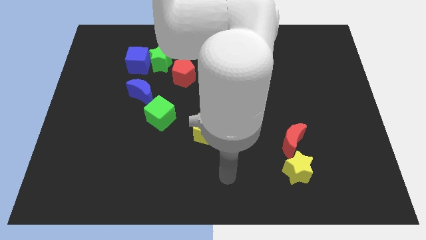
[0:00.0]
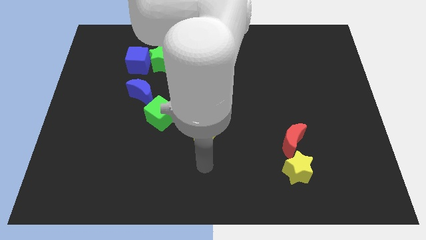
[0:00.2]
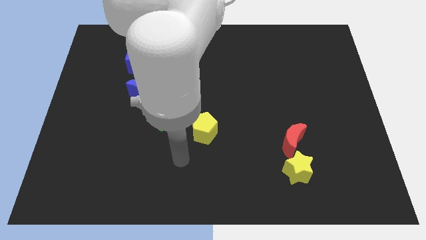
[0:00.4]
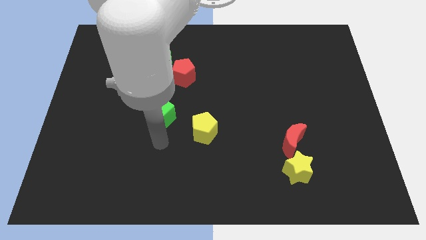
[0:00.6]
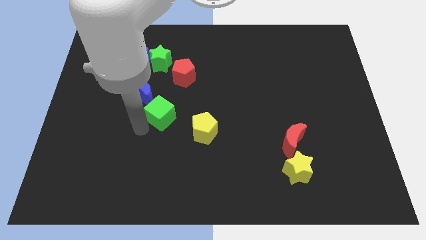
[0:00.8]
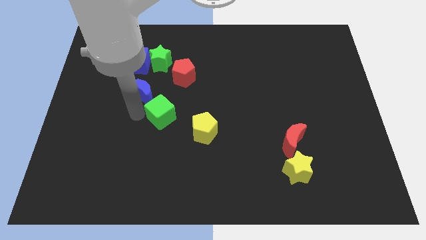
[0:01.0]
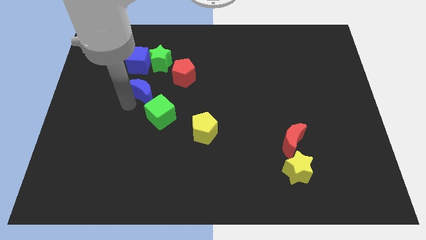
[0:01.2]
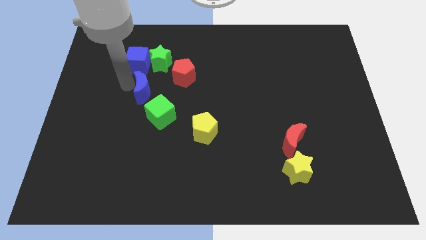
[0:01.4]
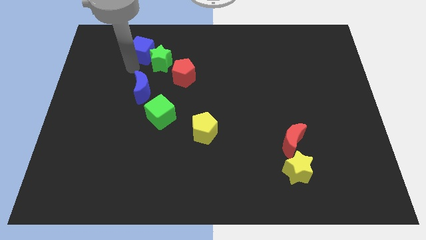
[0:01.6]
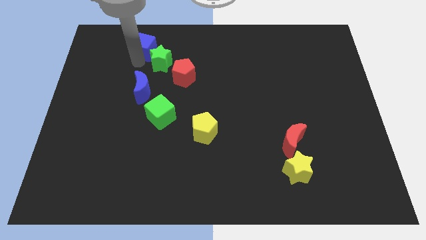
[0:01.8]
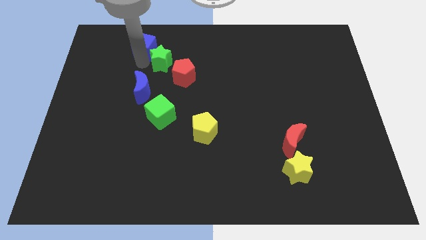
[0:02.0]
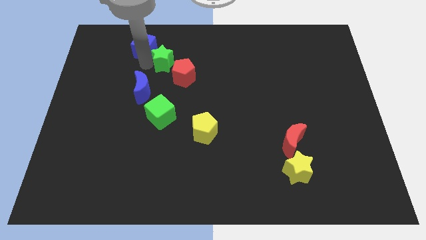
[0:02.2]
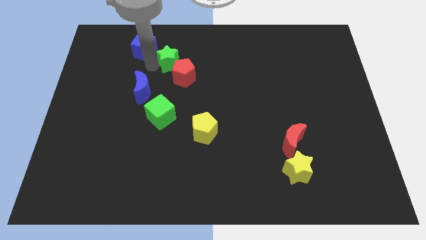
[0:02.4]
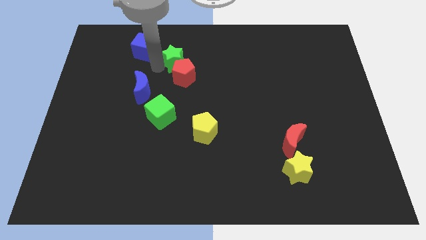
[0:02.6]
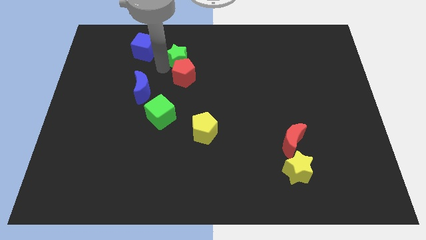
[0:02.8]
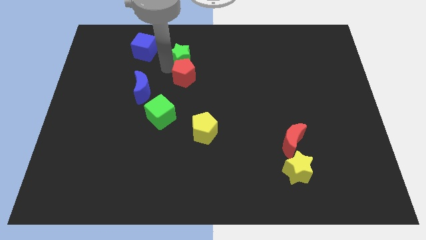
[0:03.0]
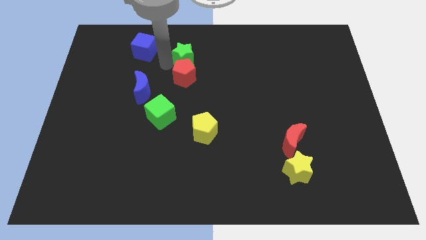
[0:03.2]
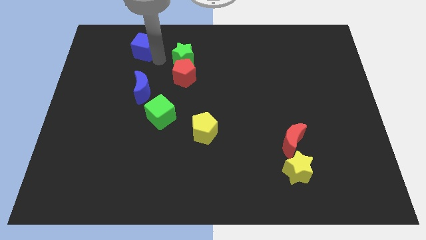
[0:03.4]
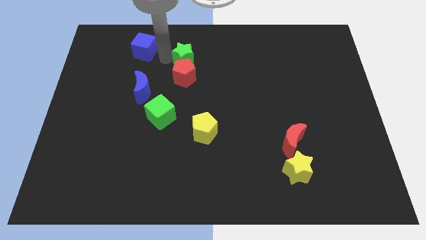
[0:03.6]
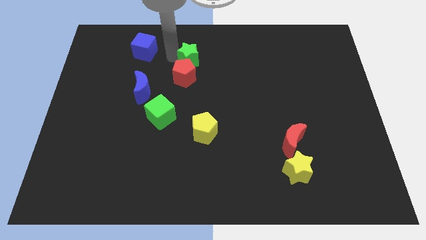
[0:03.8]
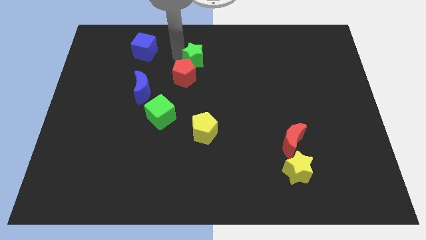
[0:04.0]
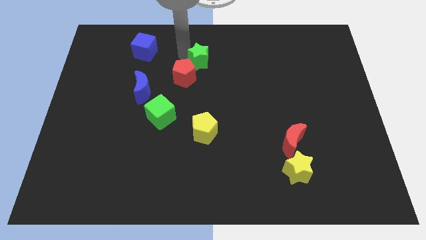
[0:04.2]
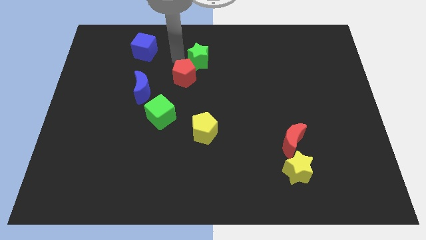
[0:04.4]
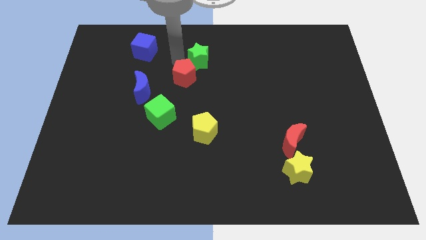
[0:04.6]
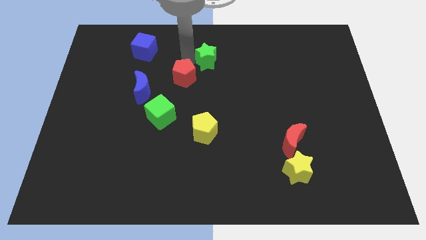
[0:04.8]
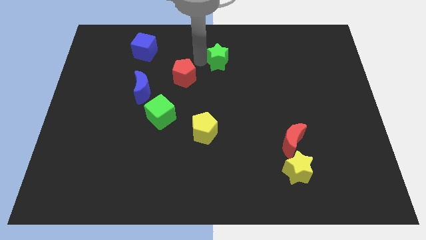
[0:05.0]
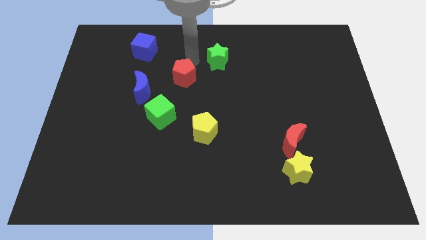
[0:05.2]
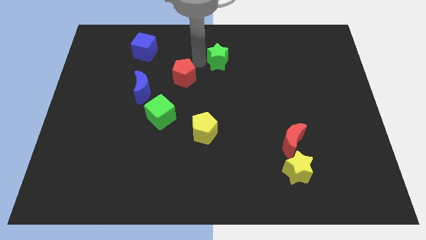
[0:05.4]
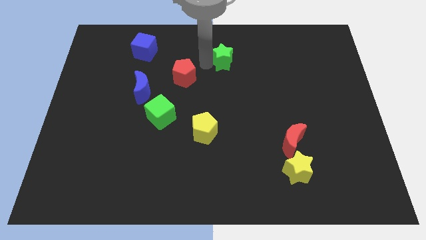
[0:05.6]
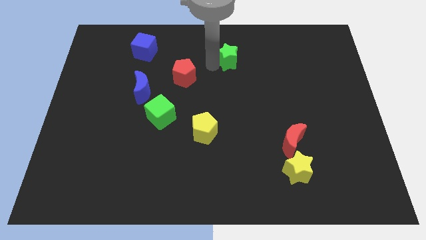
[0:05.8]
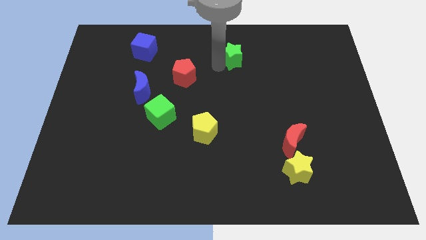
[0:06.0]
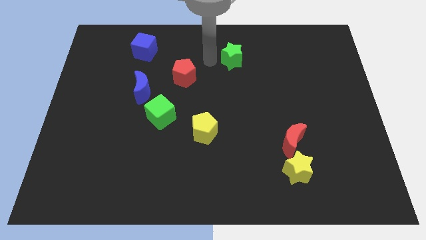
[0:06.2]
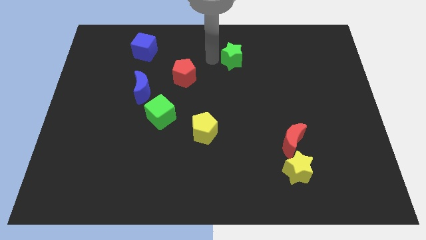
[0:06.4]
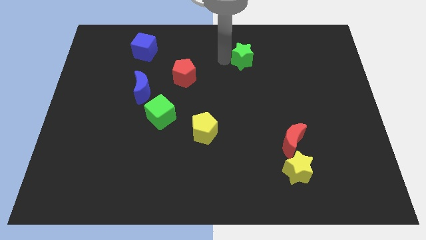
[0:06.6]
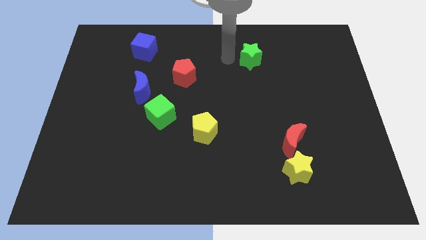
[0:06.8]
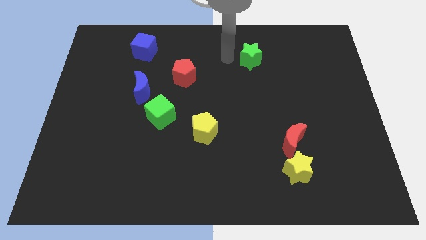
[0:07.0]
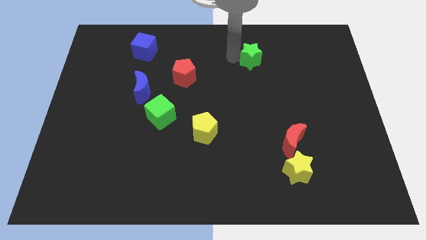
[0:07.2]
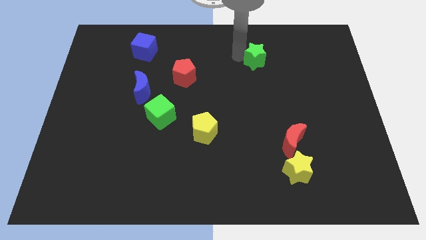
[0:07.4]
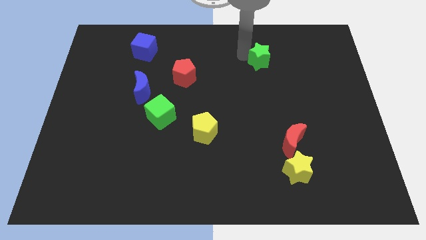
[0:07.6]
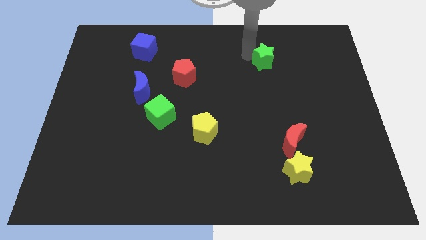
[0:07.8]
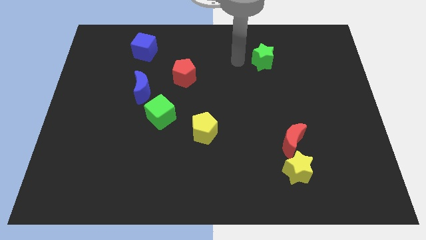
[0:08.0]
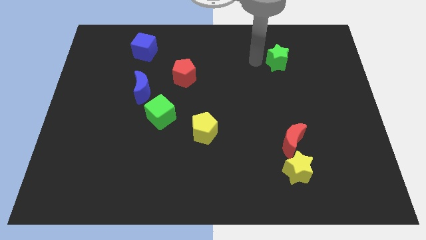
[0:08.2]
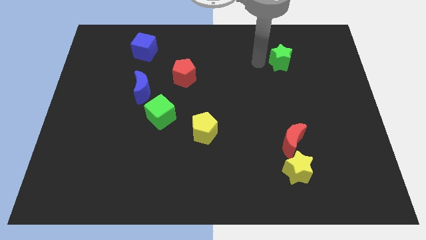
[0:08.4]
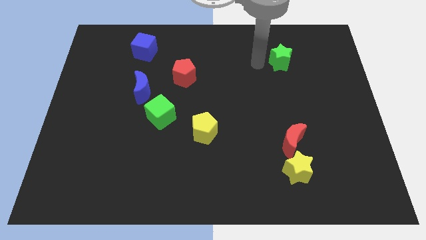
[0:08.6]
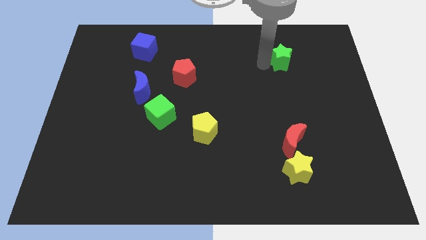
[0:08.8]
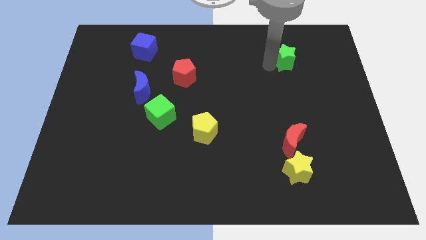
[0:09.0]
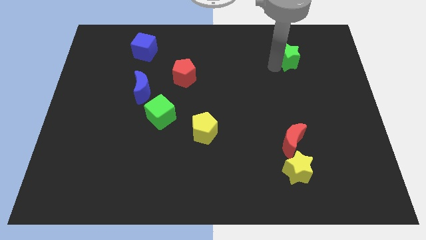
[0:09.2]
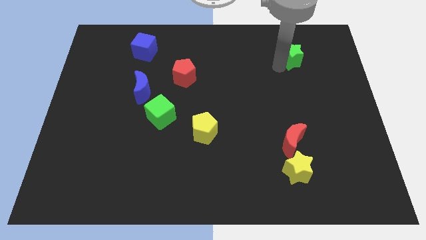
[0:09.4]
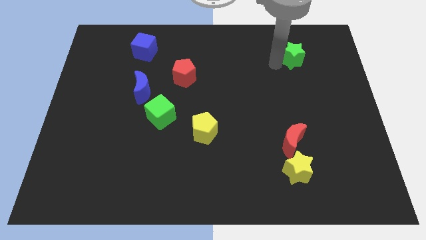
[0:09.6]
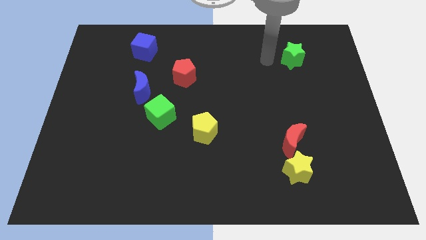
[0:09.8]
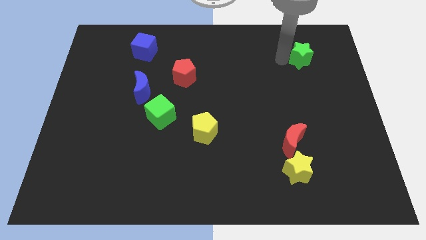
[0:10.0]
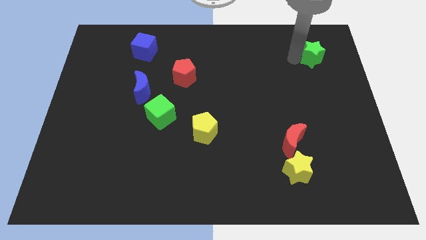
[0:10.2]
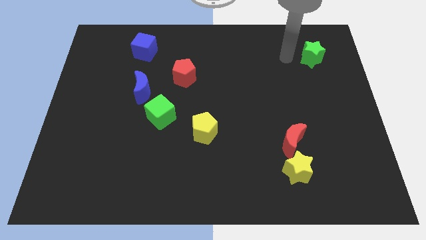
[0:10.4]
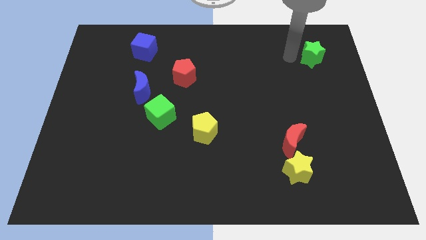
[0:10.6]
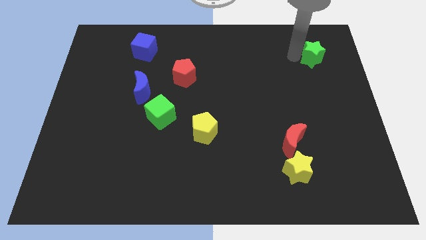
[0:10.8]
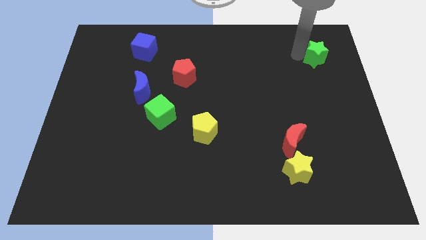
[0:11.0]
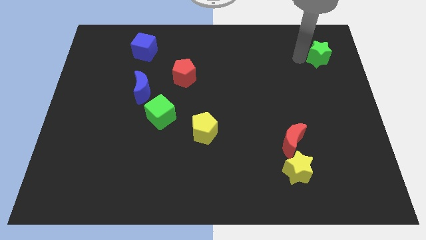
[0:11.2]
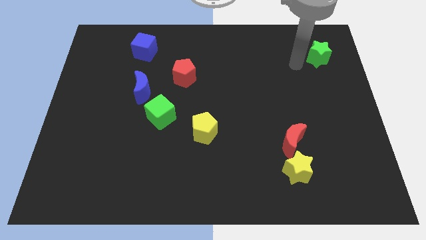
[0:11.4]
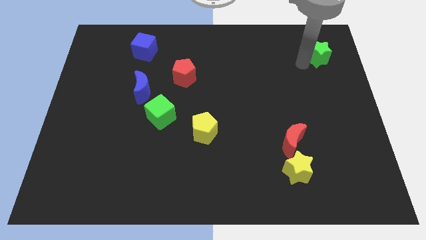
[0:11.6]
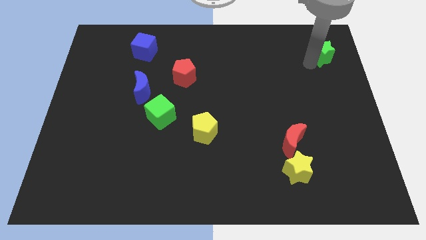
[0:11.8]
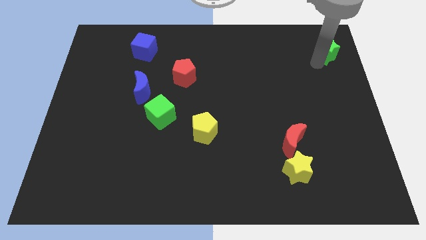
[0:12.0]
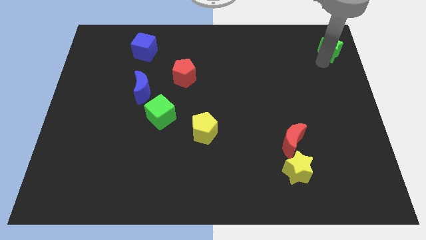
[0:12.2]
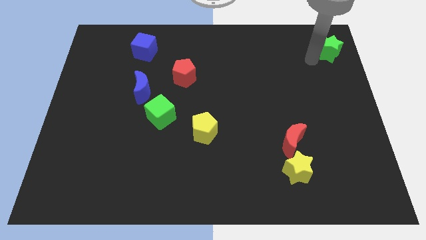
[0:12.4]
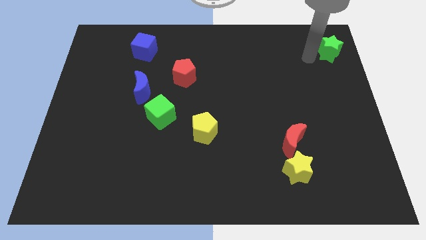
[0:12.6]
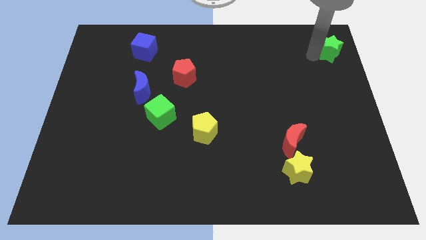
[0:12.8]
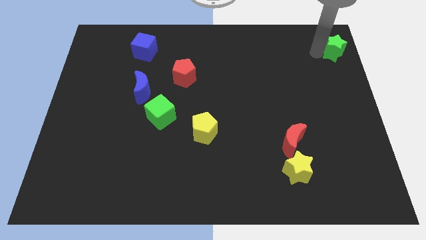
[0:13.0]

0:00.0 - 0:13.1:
move the green star to the top right of the board
